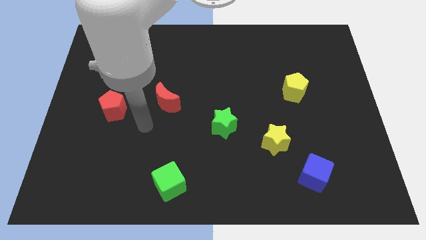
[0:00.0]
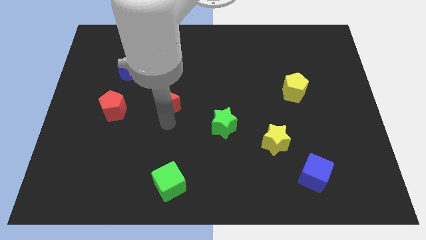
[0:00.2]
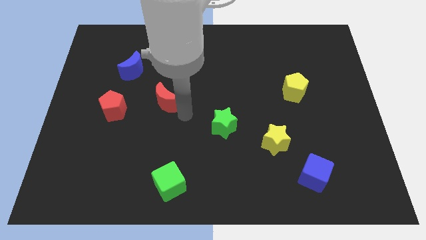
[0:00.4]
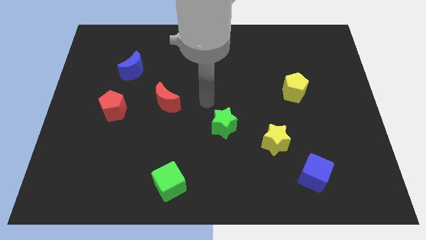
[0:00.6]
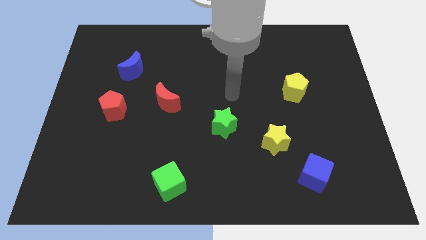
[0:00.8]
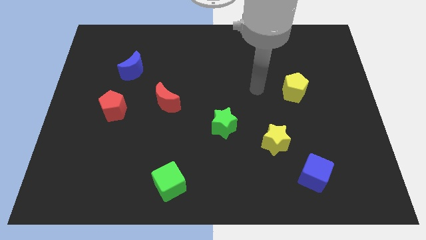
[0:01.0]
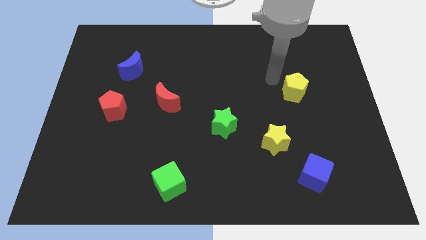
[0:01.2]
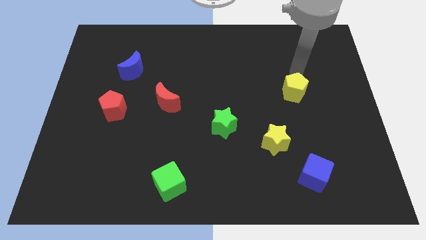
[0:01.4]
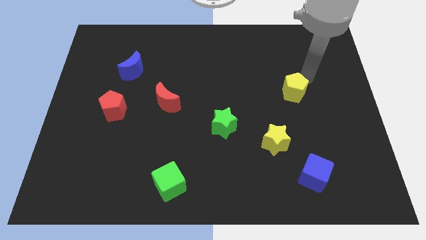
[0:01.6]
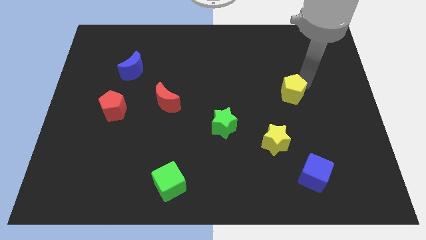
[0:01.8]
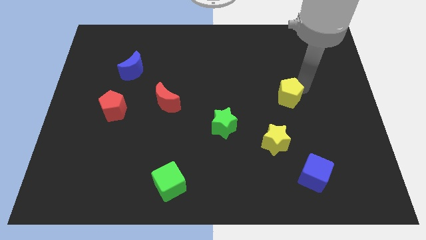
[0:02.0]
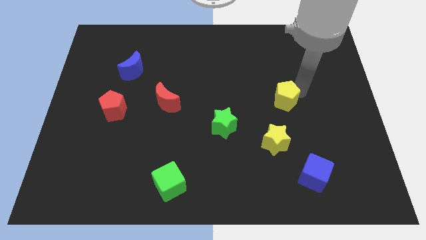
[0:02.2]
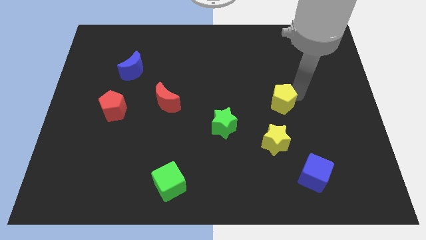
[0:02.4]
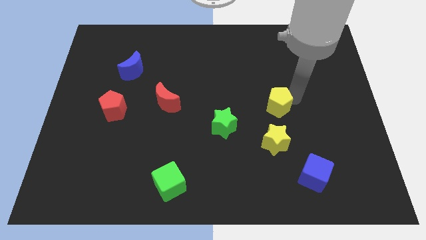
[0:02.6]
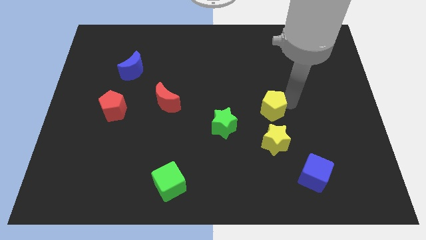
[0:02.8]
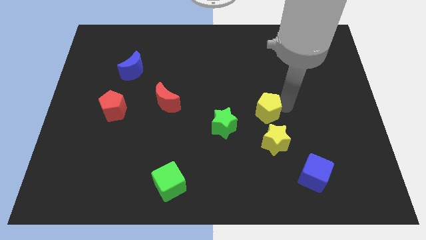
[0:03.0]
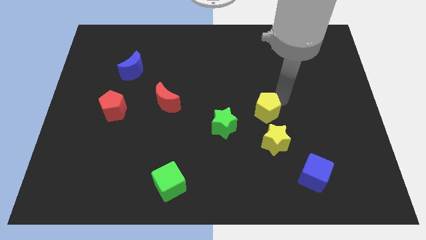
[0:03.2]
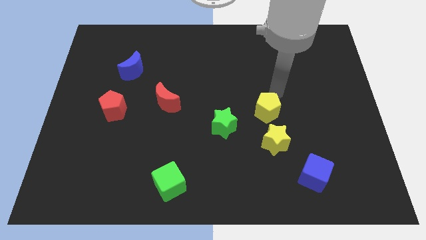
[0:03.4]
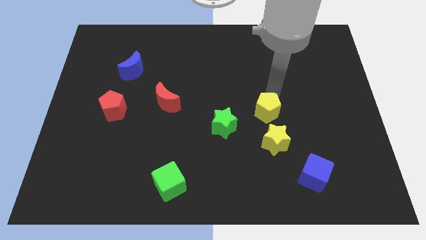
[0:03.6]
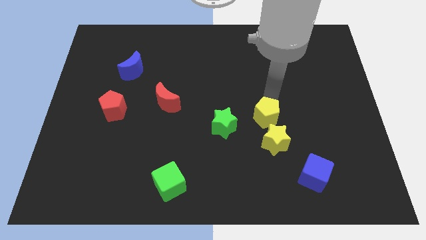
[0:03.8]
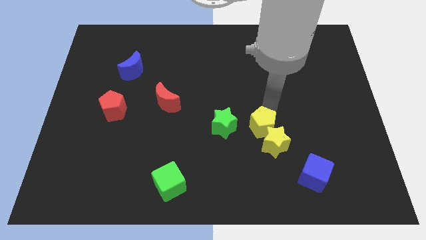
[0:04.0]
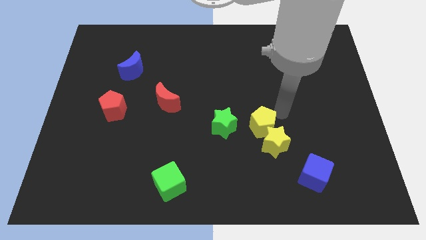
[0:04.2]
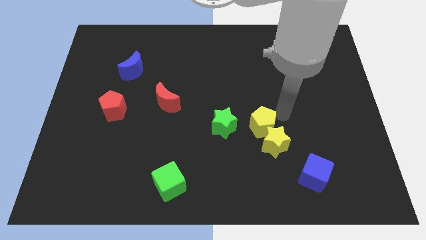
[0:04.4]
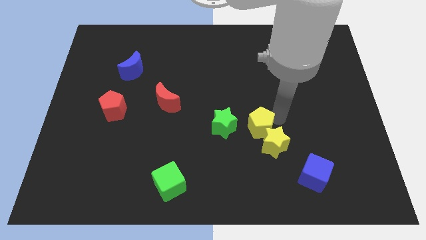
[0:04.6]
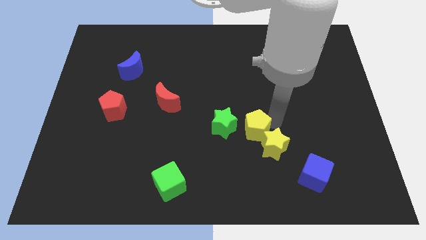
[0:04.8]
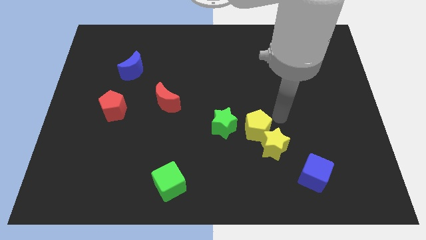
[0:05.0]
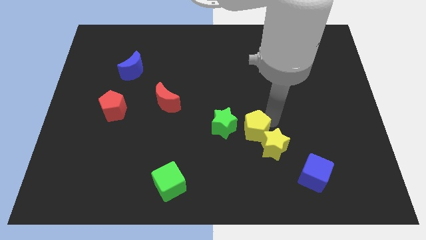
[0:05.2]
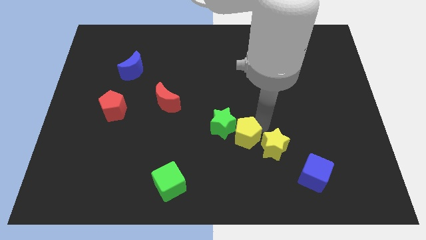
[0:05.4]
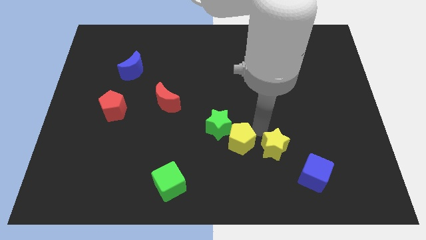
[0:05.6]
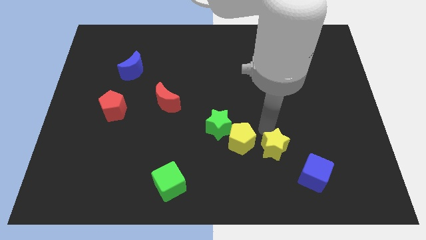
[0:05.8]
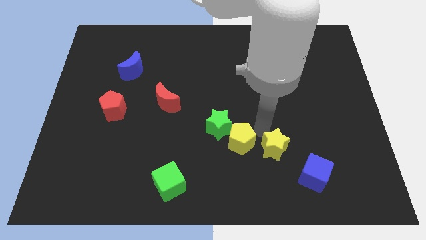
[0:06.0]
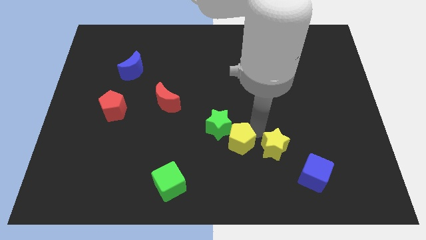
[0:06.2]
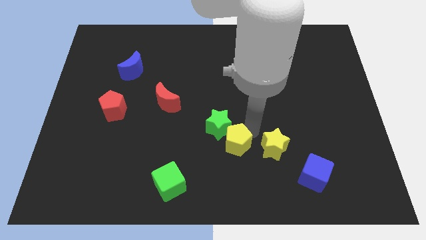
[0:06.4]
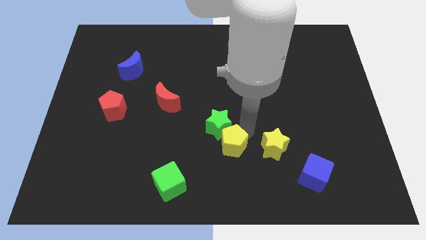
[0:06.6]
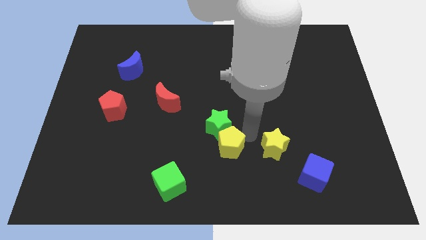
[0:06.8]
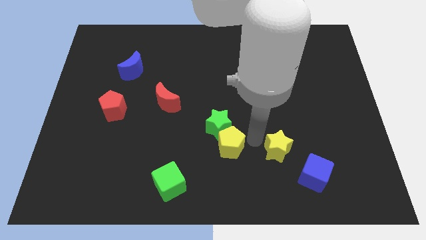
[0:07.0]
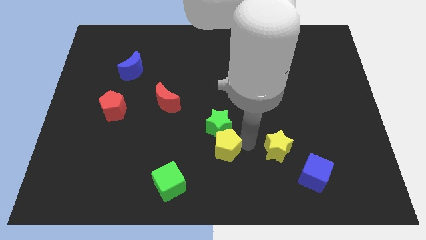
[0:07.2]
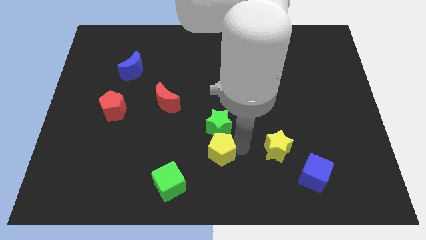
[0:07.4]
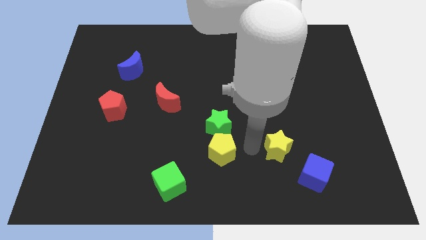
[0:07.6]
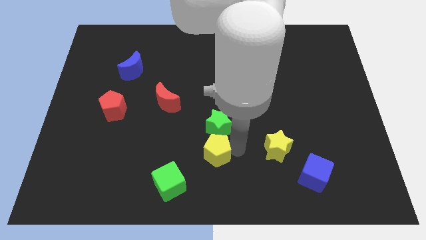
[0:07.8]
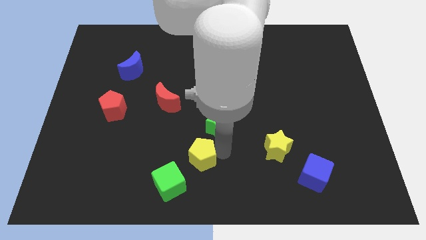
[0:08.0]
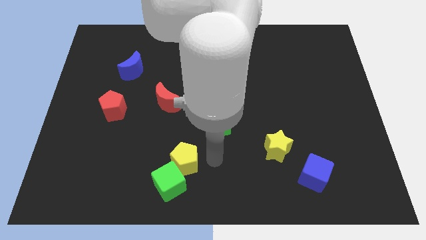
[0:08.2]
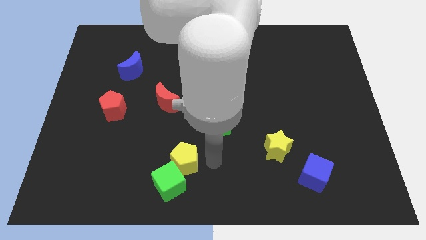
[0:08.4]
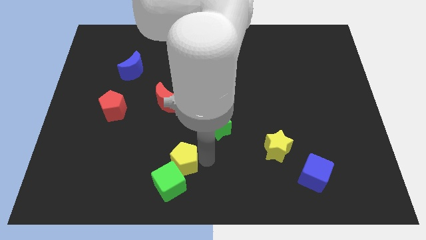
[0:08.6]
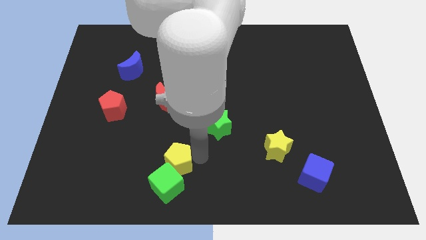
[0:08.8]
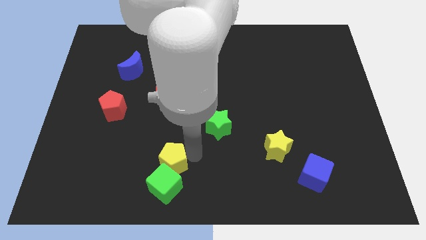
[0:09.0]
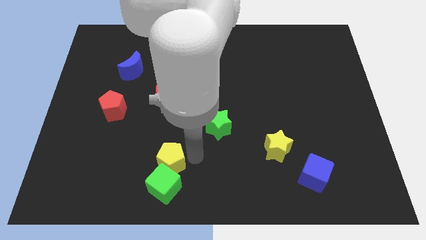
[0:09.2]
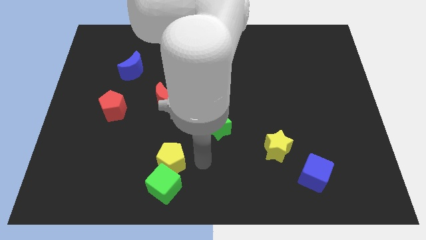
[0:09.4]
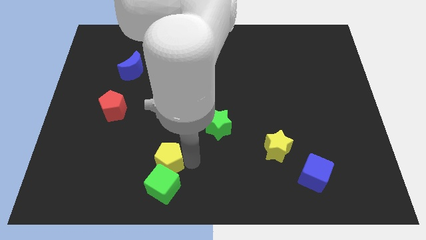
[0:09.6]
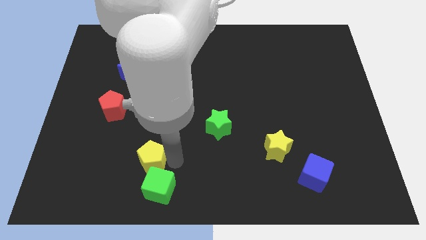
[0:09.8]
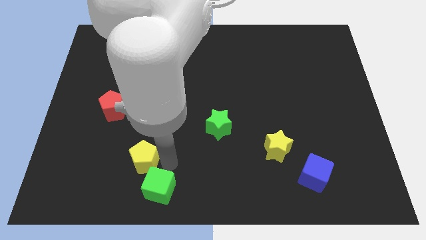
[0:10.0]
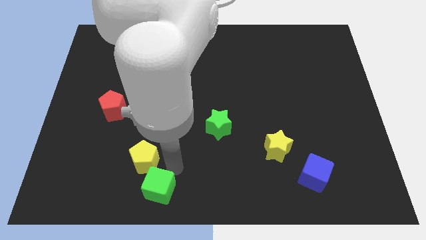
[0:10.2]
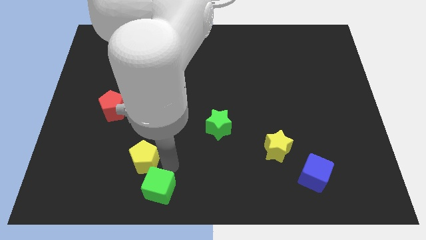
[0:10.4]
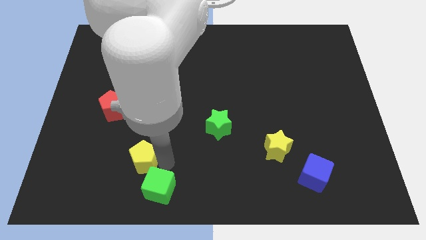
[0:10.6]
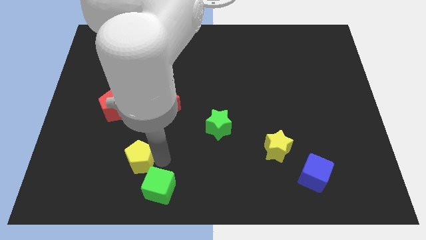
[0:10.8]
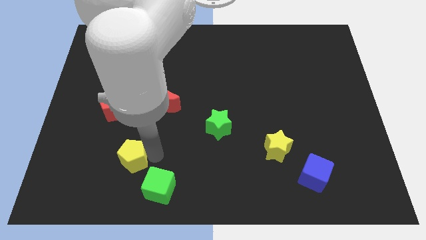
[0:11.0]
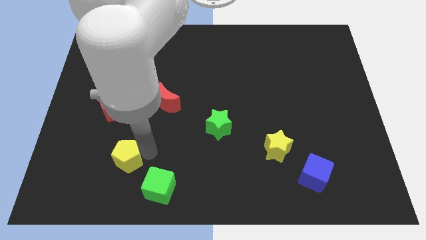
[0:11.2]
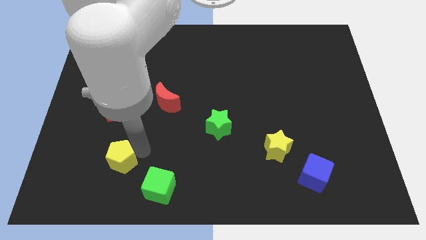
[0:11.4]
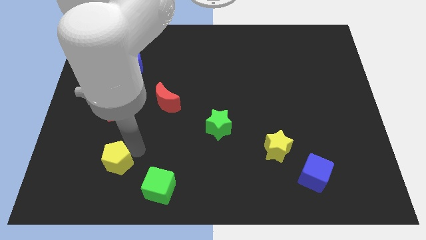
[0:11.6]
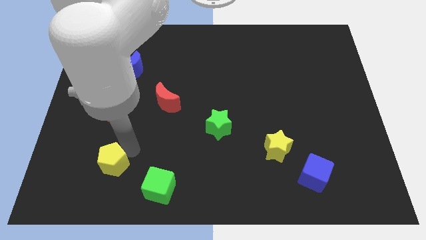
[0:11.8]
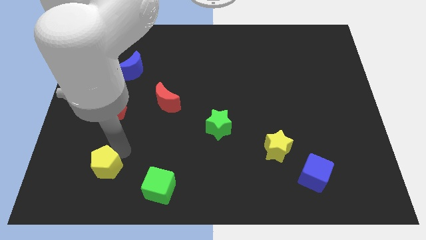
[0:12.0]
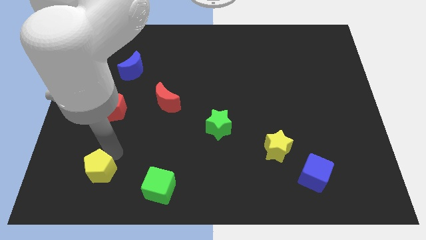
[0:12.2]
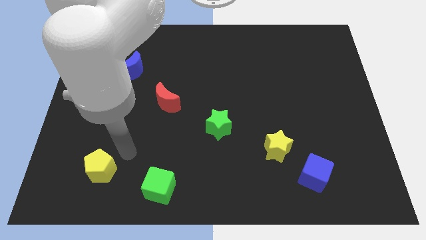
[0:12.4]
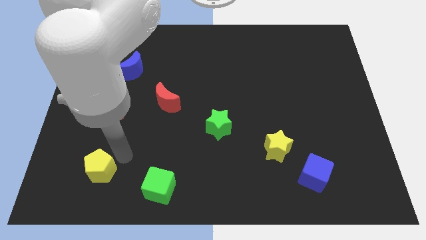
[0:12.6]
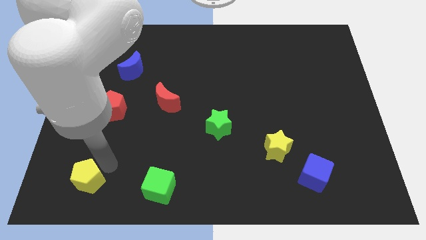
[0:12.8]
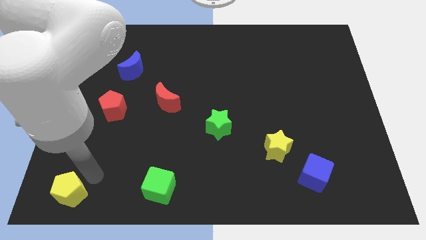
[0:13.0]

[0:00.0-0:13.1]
put the yellow pentagon to the bottom left of the board
